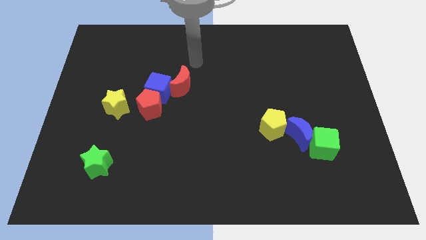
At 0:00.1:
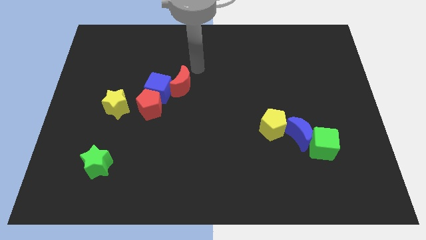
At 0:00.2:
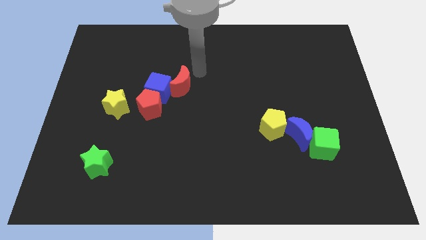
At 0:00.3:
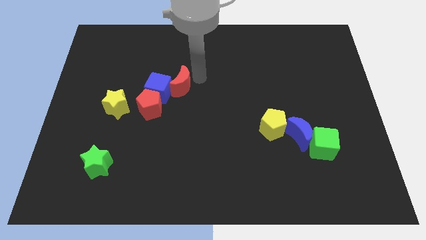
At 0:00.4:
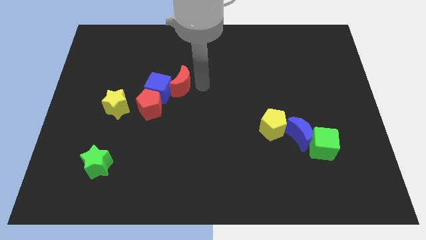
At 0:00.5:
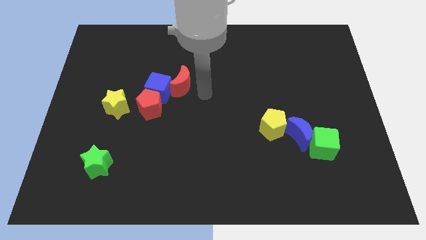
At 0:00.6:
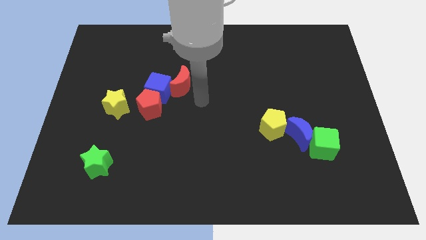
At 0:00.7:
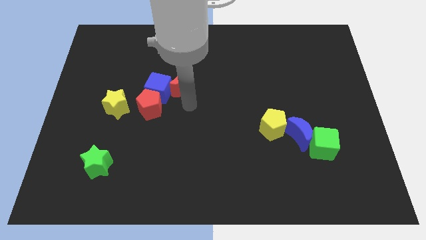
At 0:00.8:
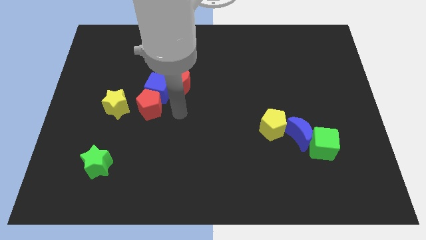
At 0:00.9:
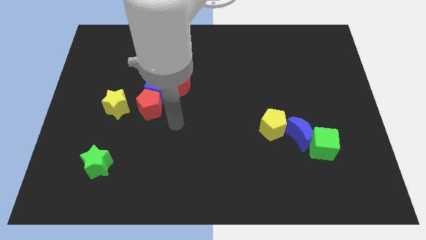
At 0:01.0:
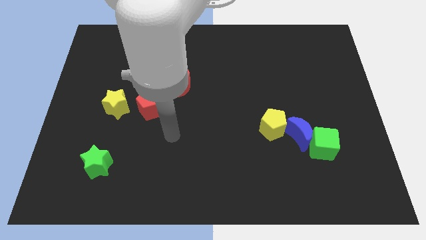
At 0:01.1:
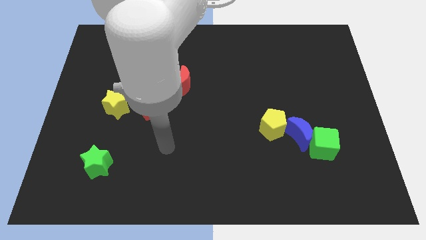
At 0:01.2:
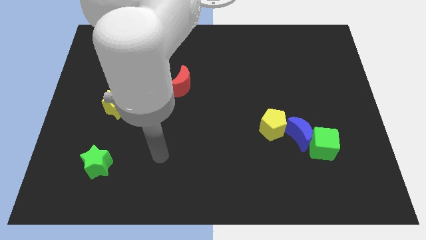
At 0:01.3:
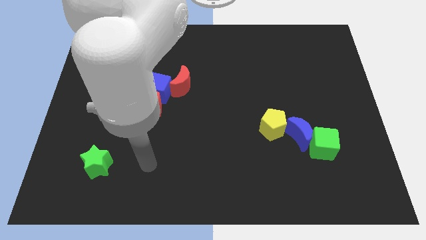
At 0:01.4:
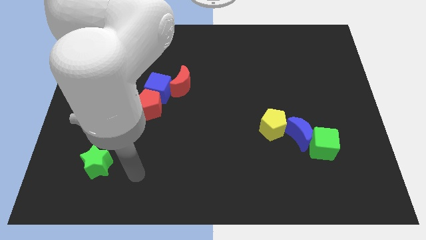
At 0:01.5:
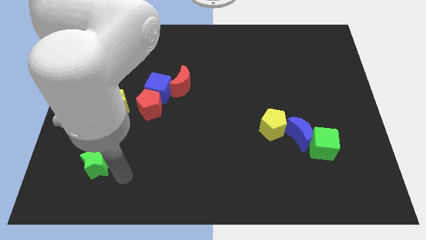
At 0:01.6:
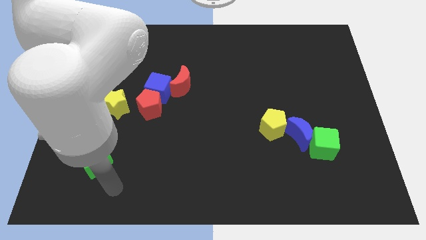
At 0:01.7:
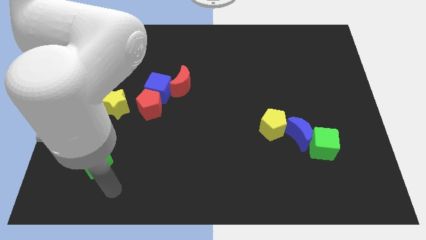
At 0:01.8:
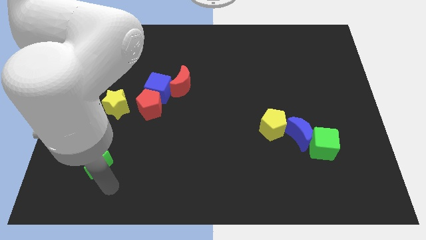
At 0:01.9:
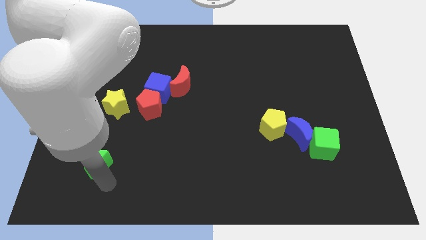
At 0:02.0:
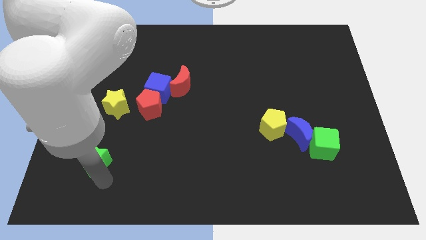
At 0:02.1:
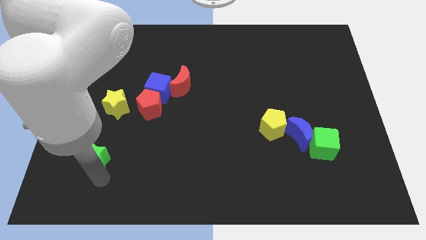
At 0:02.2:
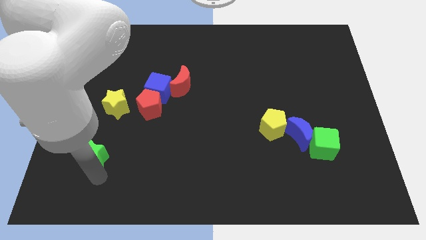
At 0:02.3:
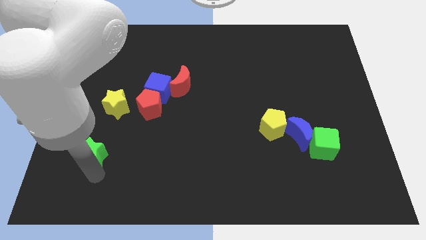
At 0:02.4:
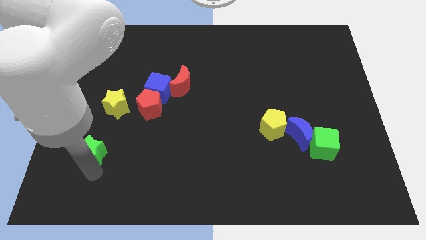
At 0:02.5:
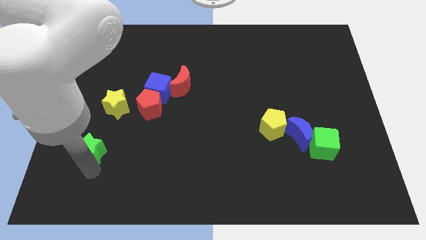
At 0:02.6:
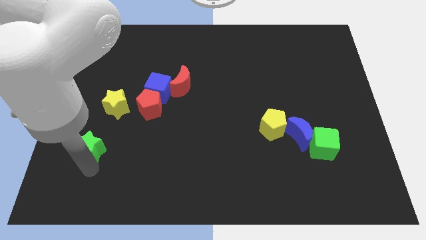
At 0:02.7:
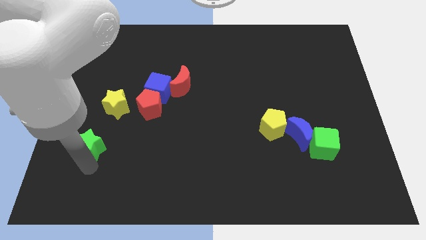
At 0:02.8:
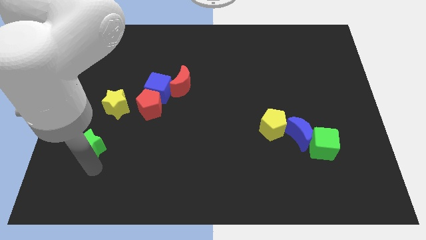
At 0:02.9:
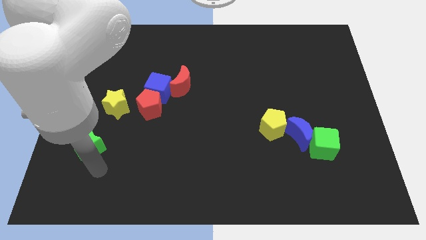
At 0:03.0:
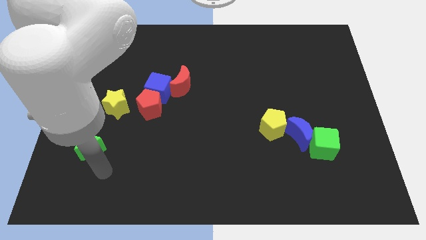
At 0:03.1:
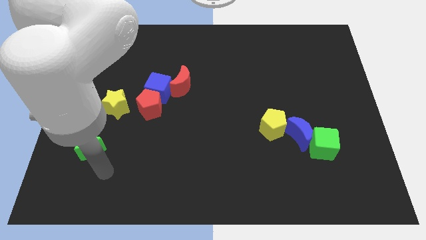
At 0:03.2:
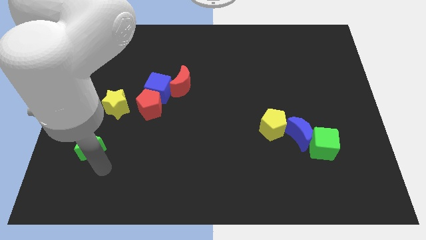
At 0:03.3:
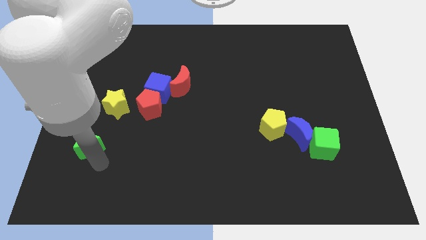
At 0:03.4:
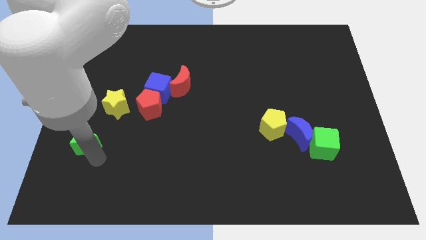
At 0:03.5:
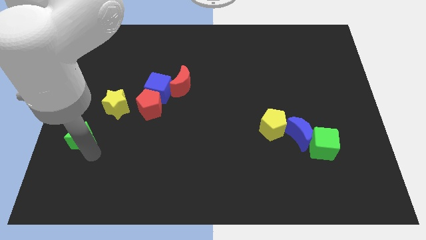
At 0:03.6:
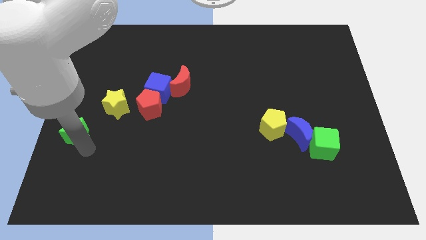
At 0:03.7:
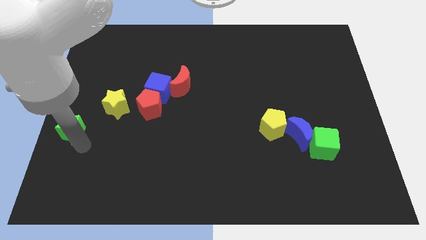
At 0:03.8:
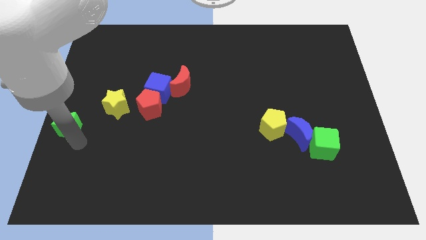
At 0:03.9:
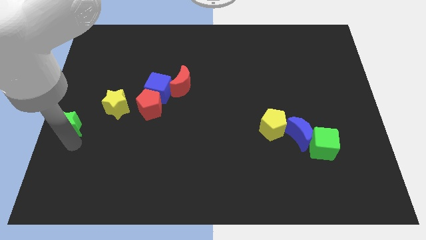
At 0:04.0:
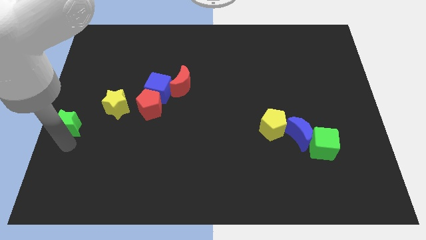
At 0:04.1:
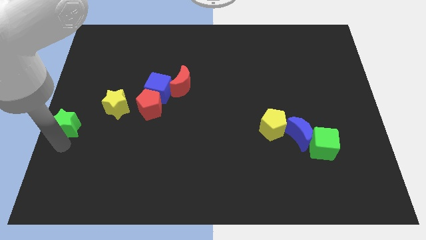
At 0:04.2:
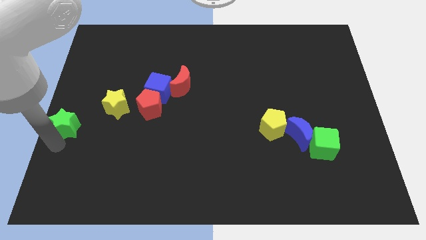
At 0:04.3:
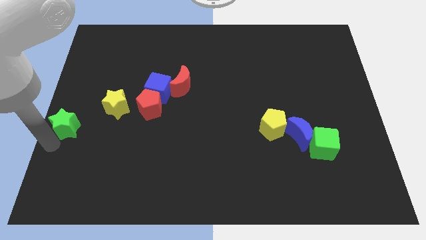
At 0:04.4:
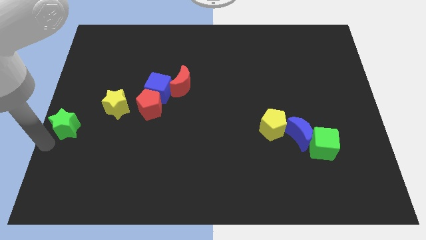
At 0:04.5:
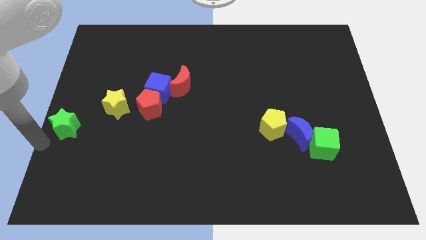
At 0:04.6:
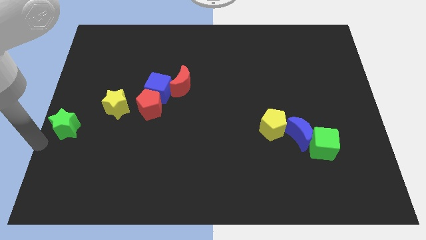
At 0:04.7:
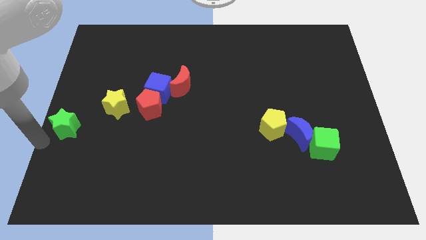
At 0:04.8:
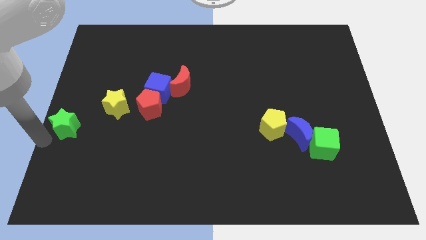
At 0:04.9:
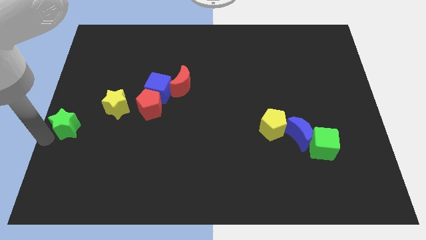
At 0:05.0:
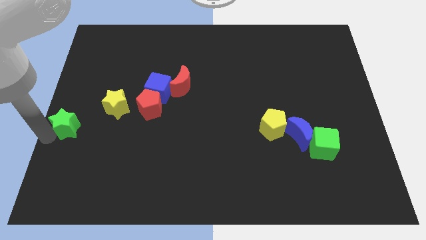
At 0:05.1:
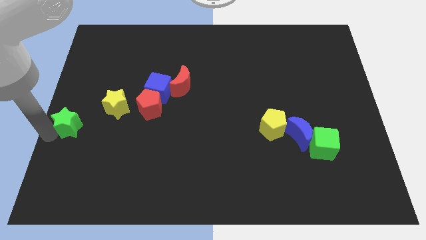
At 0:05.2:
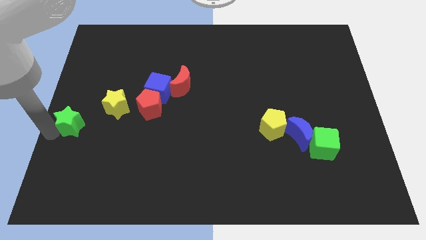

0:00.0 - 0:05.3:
slide the green star a bit up

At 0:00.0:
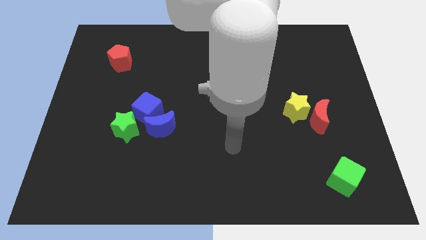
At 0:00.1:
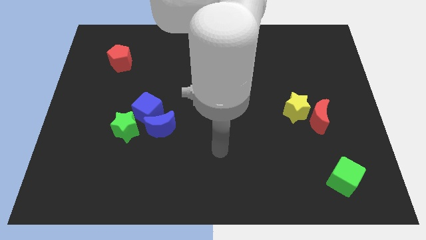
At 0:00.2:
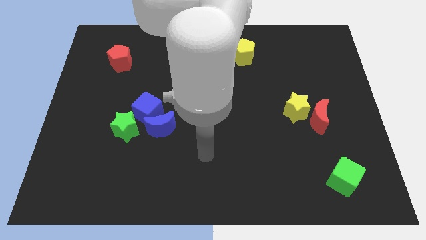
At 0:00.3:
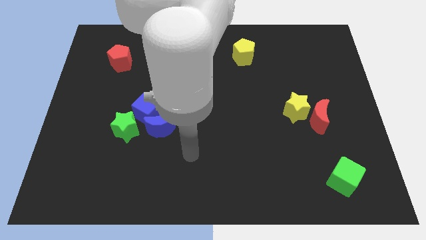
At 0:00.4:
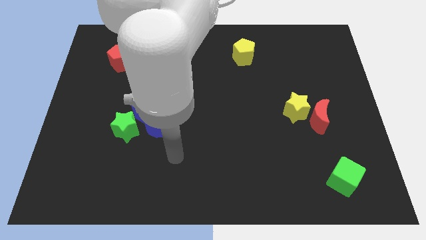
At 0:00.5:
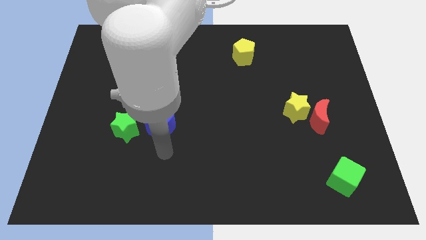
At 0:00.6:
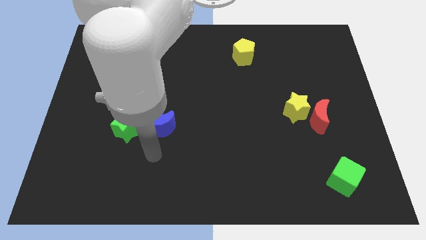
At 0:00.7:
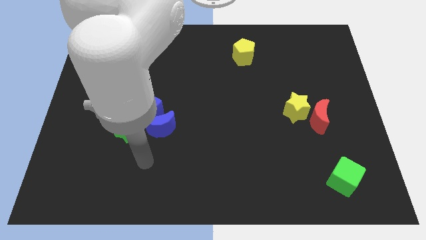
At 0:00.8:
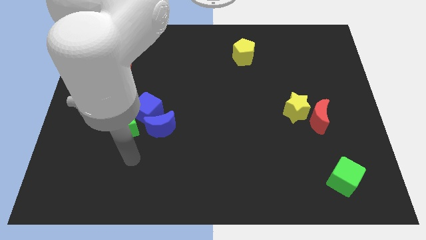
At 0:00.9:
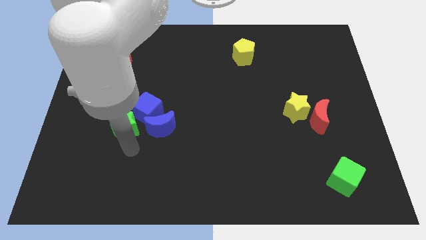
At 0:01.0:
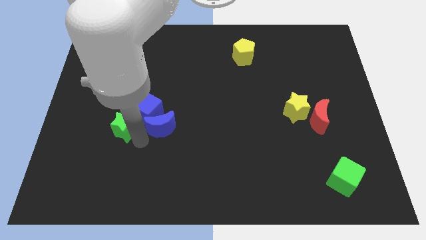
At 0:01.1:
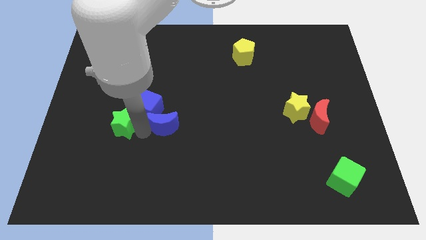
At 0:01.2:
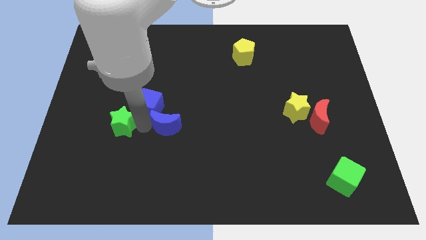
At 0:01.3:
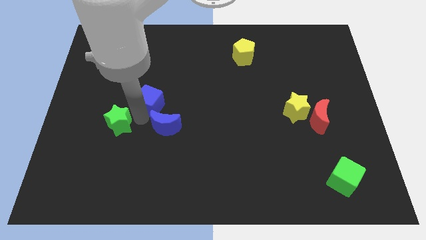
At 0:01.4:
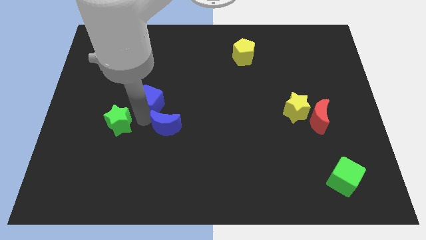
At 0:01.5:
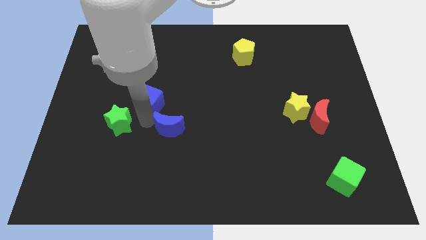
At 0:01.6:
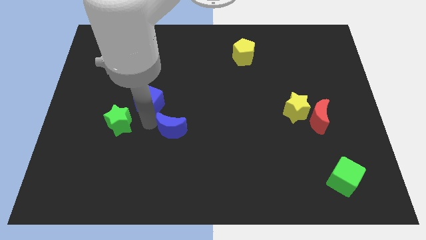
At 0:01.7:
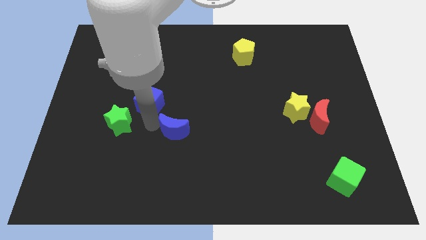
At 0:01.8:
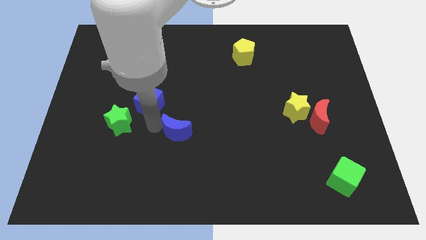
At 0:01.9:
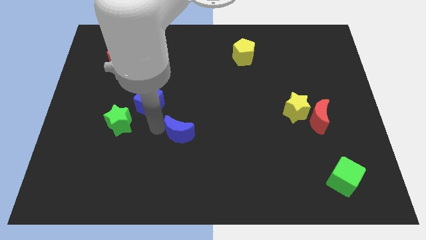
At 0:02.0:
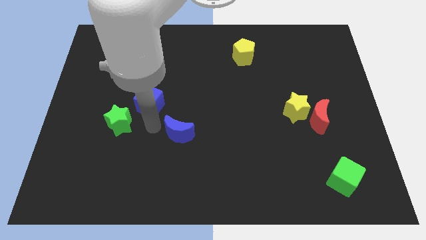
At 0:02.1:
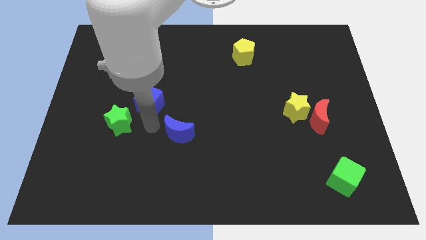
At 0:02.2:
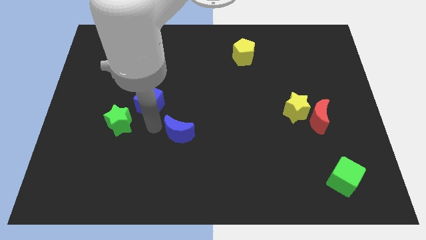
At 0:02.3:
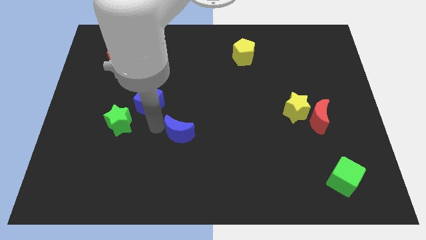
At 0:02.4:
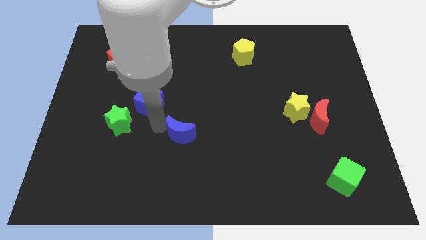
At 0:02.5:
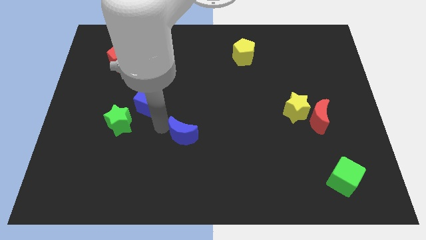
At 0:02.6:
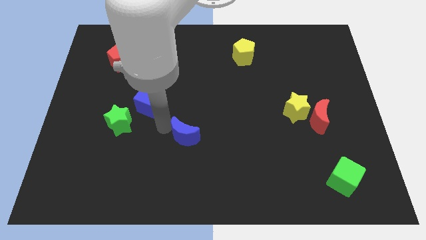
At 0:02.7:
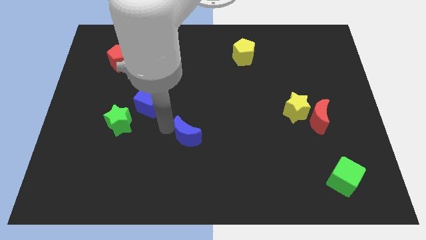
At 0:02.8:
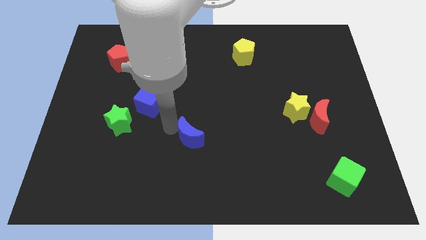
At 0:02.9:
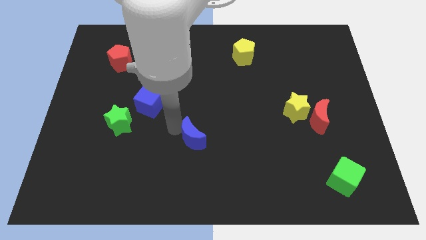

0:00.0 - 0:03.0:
slightly move the blue moon to the right
